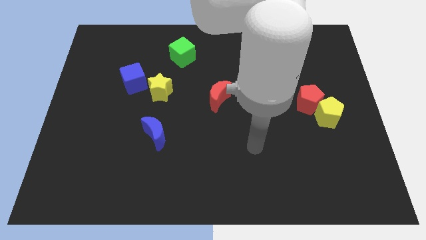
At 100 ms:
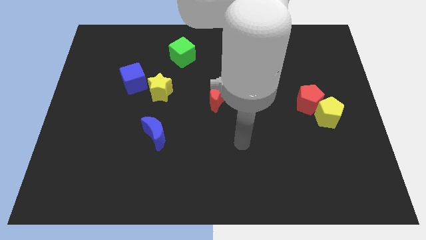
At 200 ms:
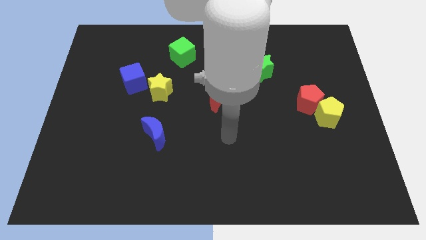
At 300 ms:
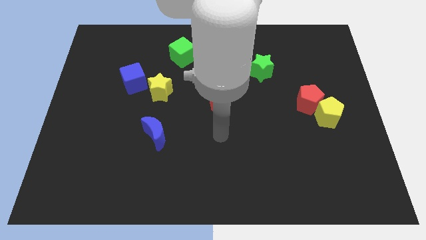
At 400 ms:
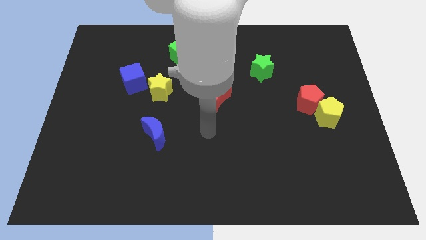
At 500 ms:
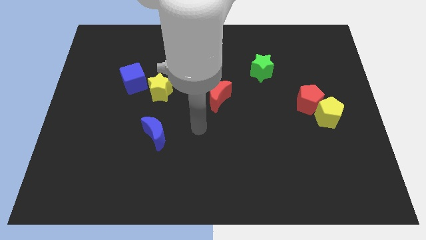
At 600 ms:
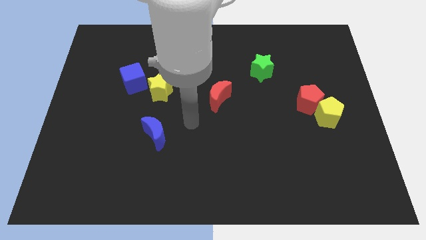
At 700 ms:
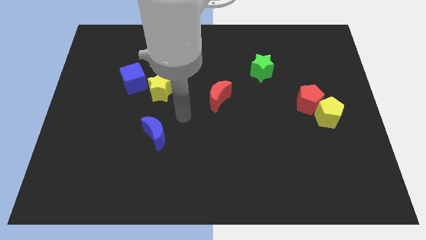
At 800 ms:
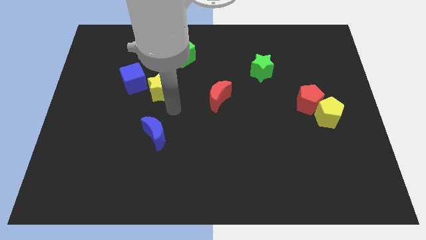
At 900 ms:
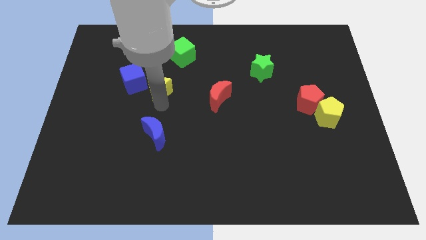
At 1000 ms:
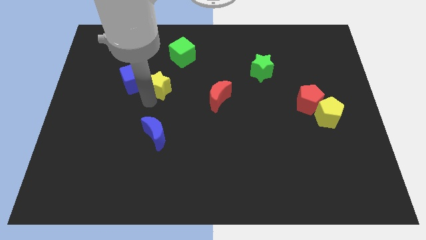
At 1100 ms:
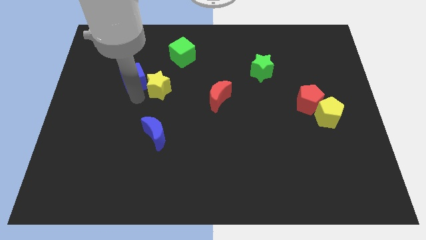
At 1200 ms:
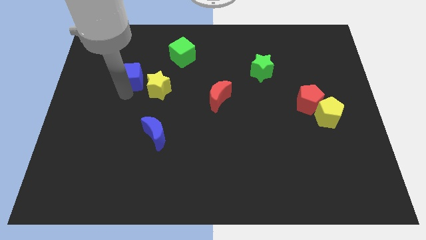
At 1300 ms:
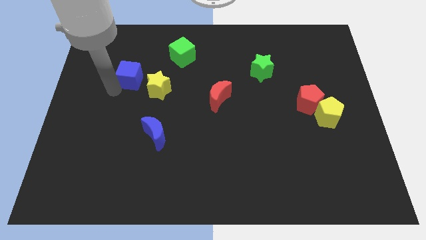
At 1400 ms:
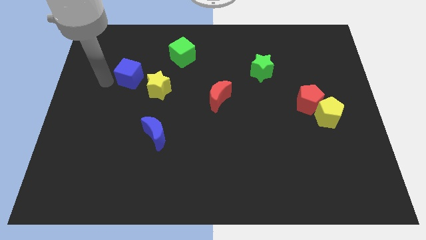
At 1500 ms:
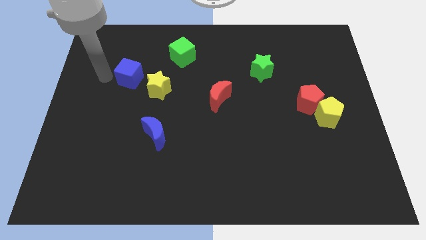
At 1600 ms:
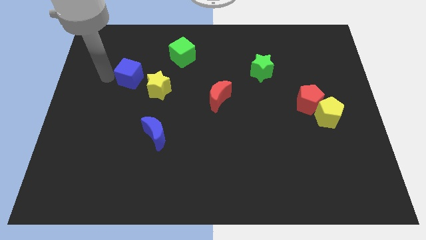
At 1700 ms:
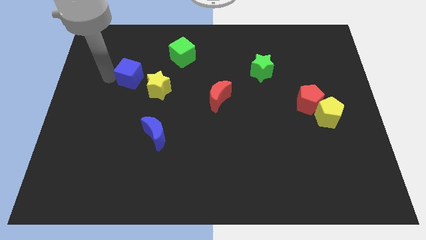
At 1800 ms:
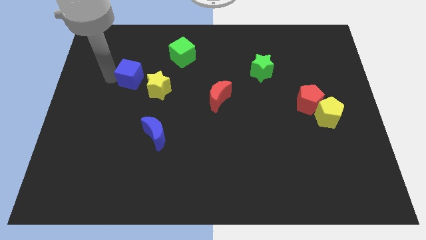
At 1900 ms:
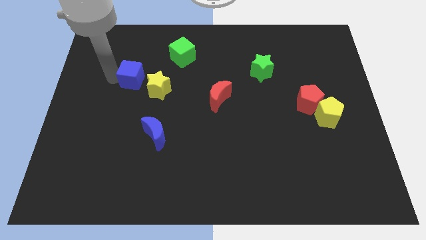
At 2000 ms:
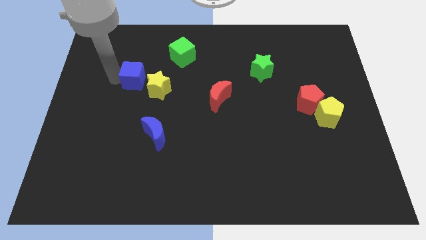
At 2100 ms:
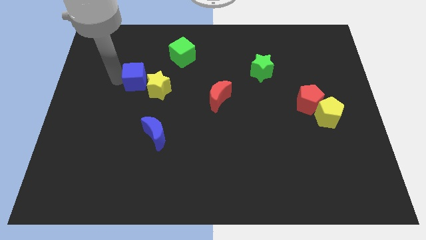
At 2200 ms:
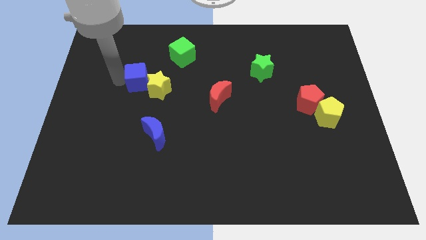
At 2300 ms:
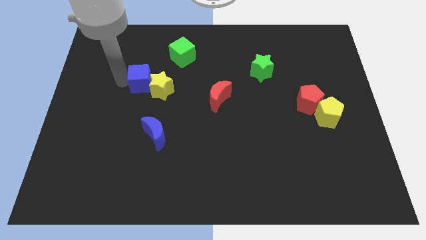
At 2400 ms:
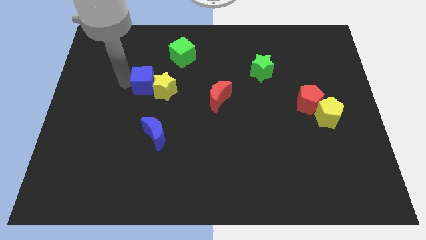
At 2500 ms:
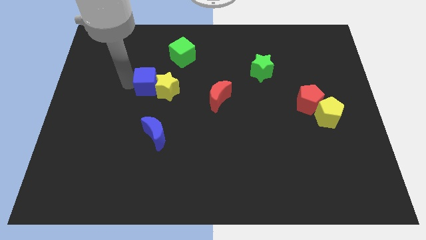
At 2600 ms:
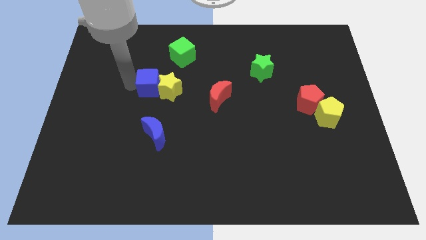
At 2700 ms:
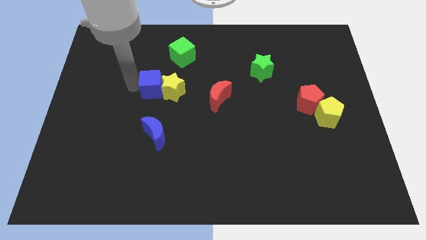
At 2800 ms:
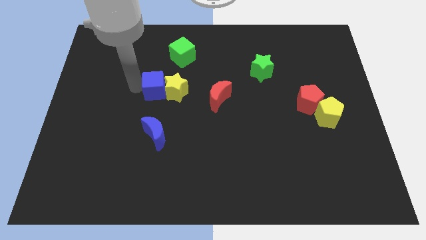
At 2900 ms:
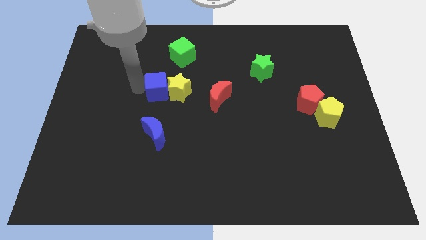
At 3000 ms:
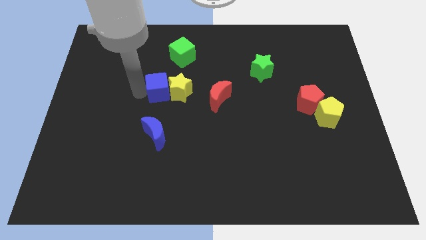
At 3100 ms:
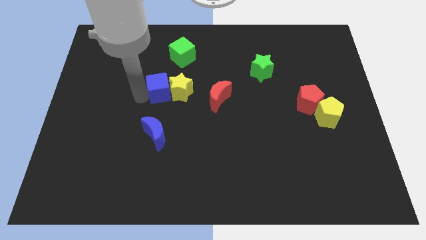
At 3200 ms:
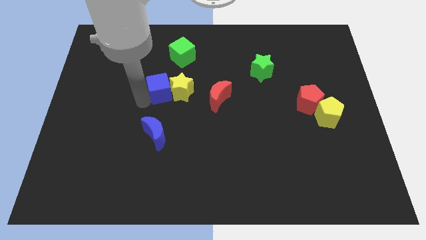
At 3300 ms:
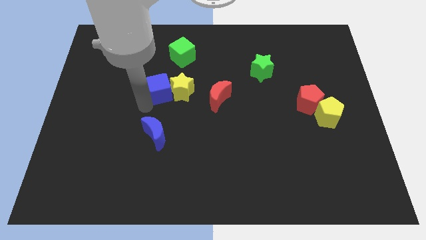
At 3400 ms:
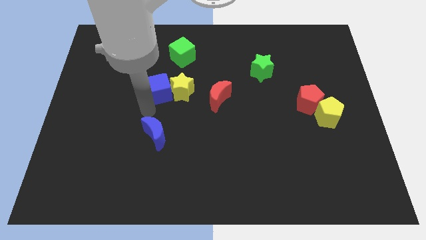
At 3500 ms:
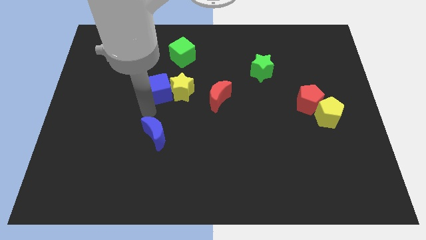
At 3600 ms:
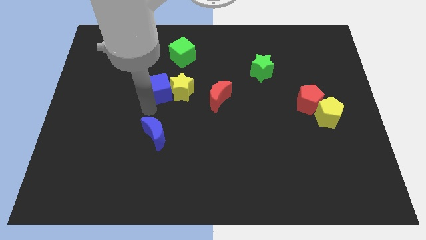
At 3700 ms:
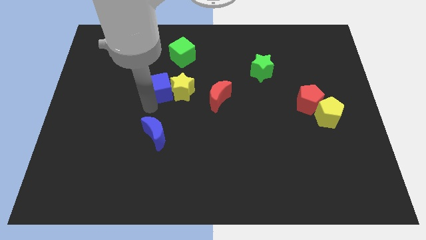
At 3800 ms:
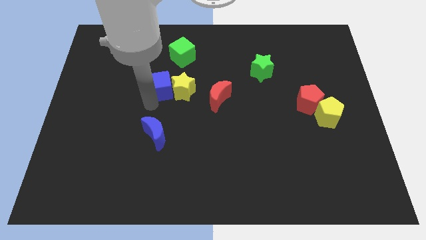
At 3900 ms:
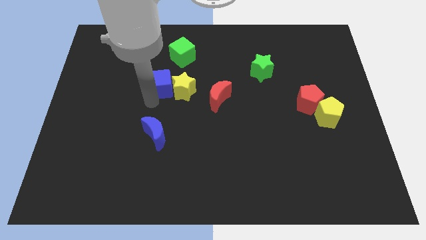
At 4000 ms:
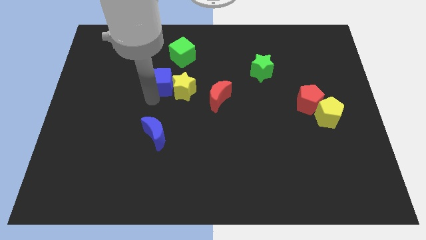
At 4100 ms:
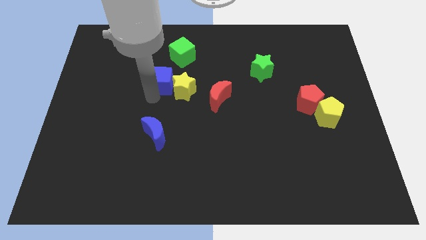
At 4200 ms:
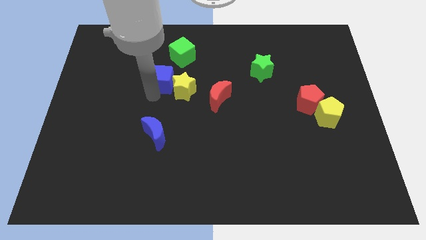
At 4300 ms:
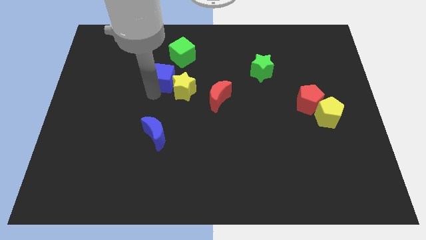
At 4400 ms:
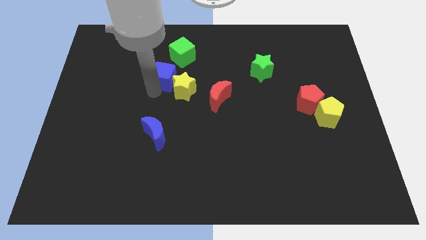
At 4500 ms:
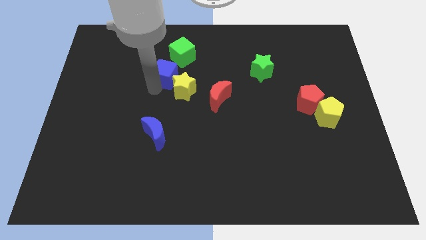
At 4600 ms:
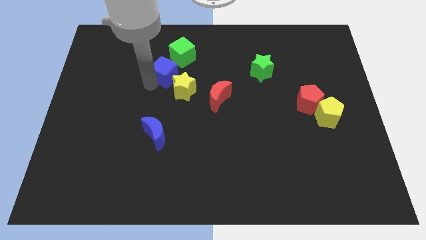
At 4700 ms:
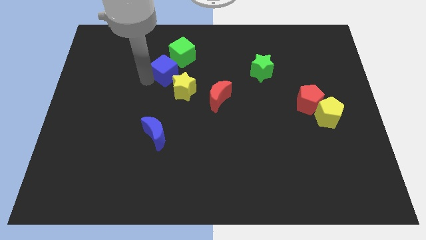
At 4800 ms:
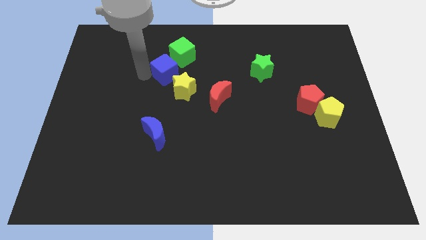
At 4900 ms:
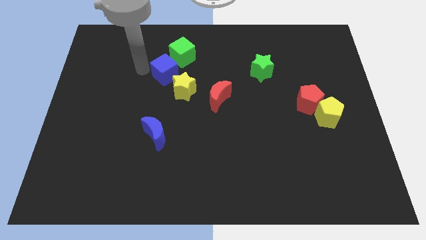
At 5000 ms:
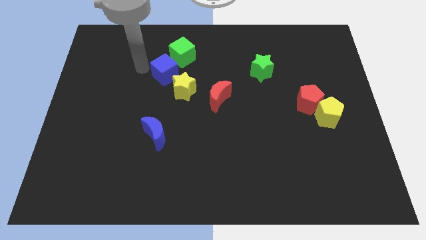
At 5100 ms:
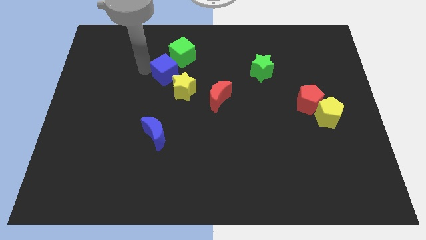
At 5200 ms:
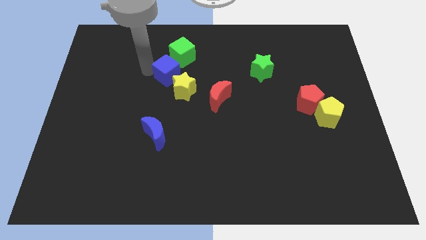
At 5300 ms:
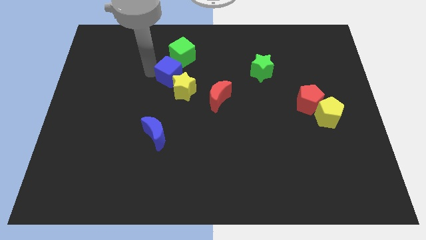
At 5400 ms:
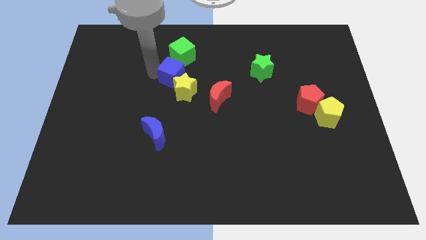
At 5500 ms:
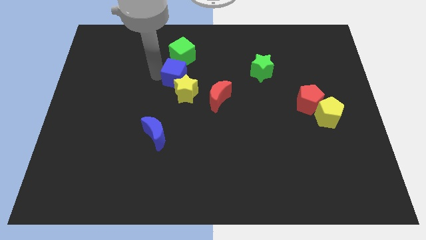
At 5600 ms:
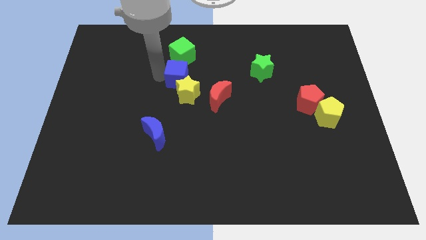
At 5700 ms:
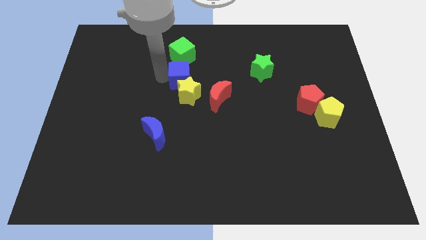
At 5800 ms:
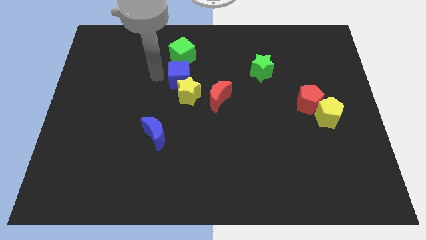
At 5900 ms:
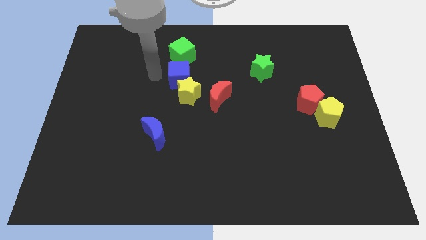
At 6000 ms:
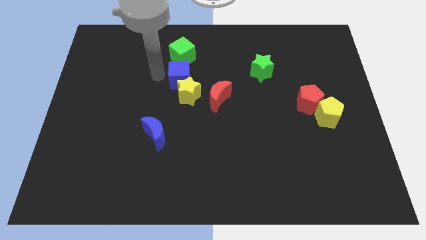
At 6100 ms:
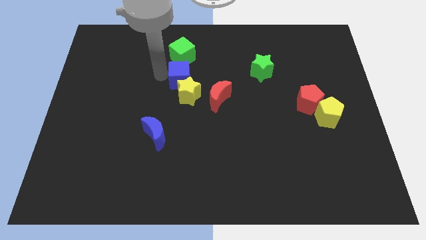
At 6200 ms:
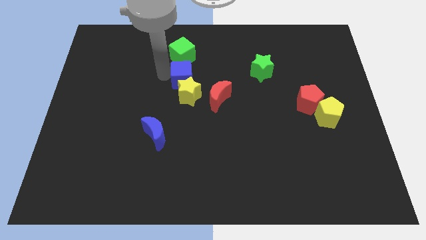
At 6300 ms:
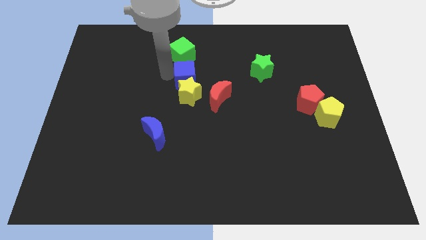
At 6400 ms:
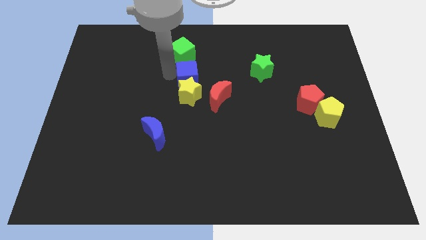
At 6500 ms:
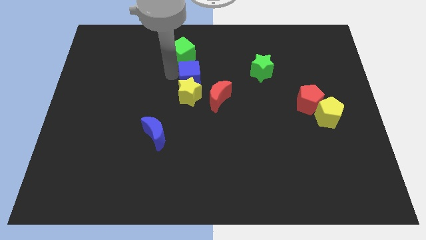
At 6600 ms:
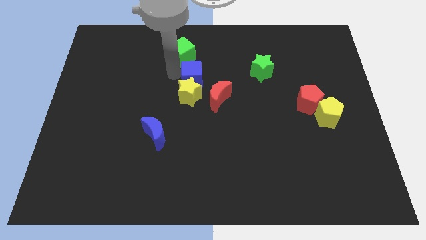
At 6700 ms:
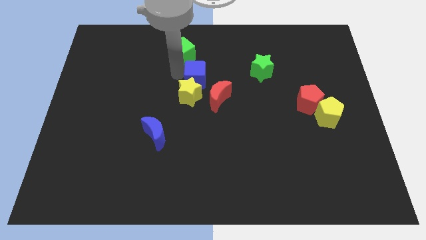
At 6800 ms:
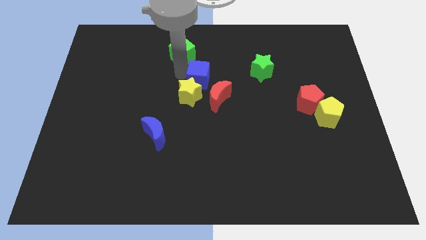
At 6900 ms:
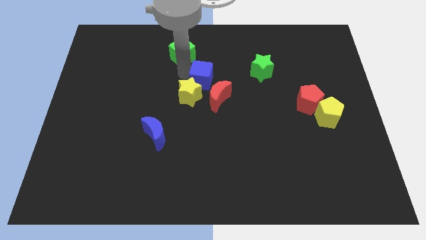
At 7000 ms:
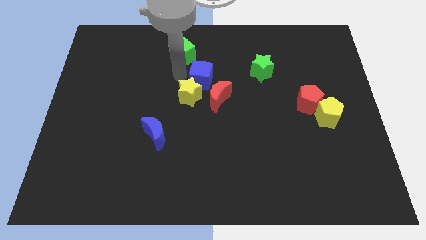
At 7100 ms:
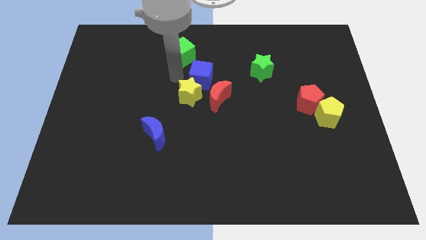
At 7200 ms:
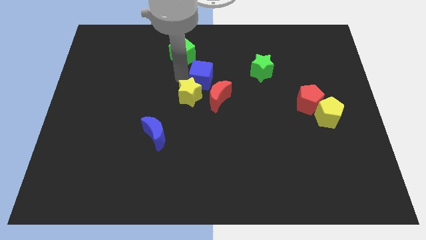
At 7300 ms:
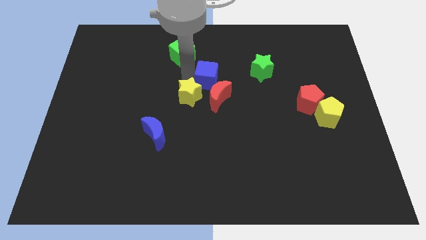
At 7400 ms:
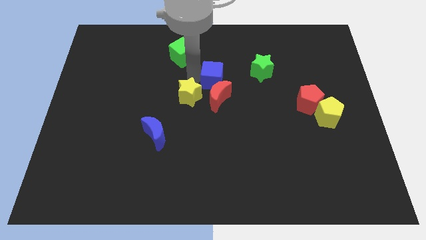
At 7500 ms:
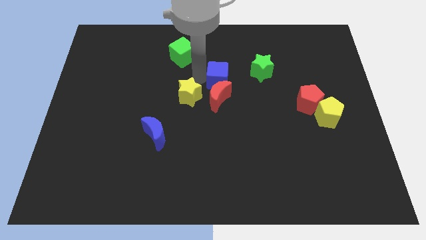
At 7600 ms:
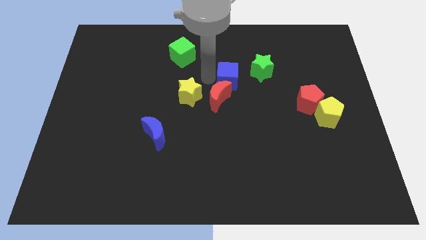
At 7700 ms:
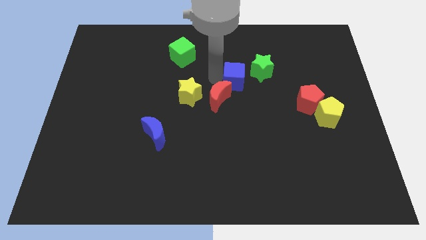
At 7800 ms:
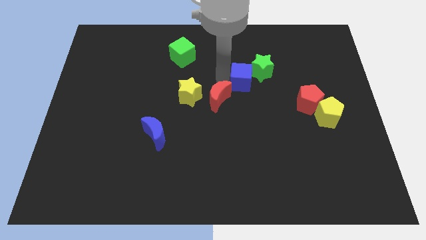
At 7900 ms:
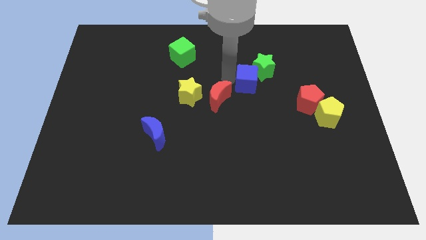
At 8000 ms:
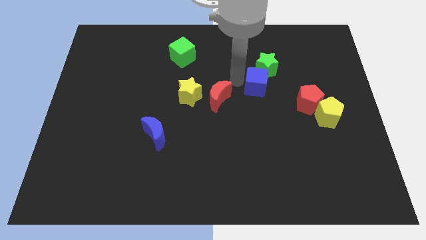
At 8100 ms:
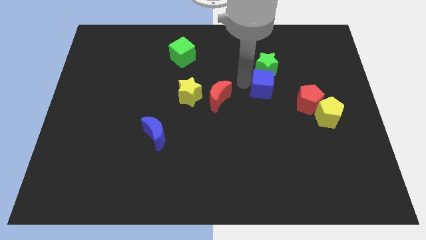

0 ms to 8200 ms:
move the blue cube to the top left side of the red pentagon
